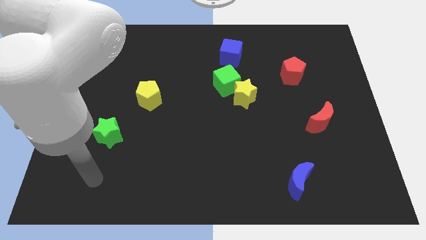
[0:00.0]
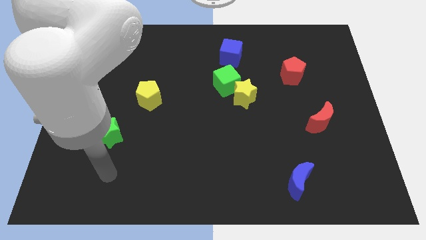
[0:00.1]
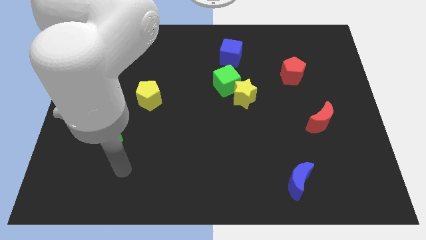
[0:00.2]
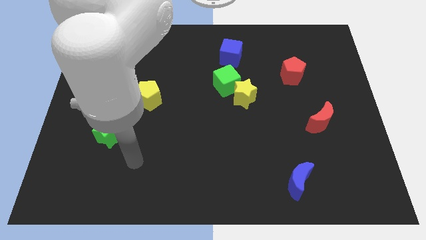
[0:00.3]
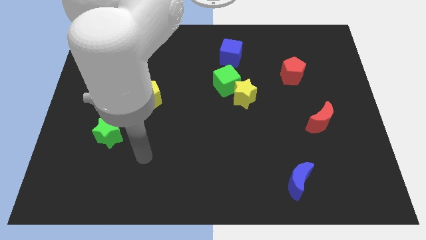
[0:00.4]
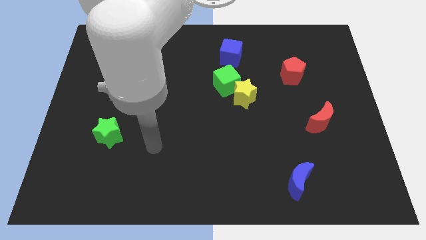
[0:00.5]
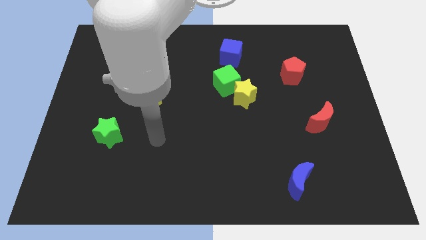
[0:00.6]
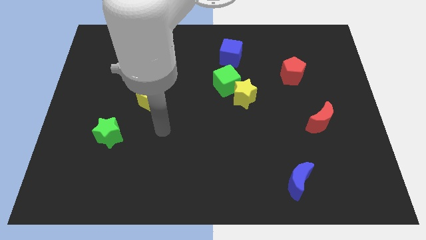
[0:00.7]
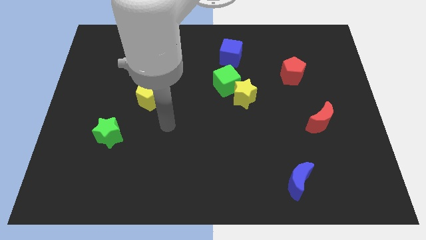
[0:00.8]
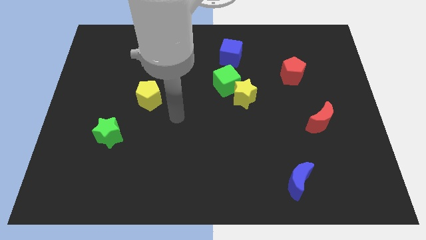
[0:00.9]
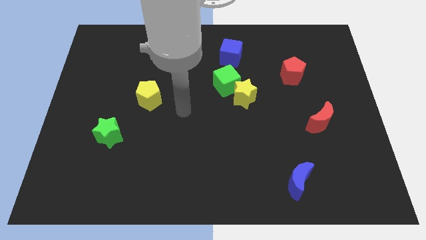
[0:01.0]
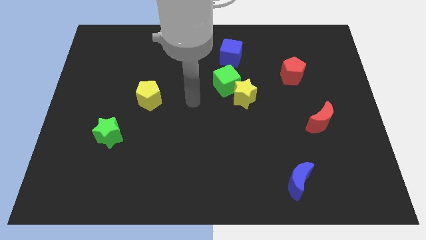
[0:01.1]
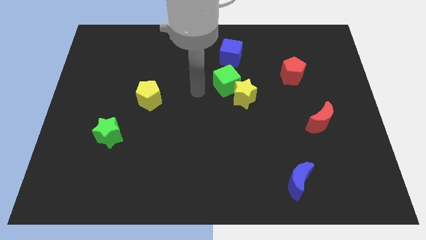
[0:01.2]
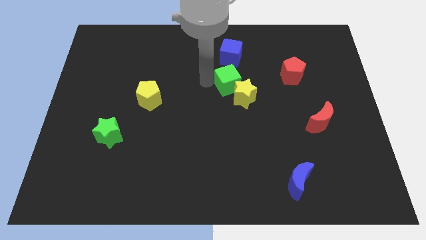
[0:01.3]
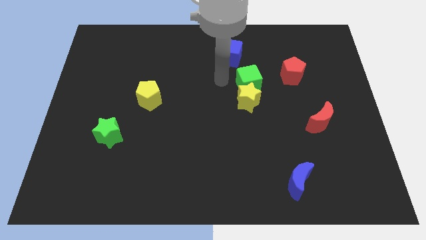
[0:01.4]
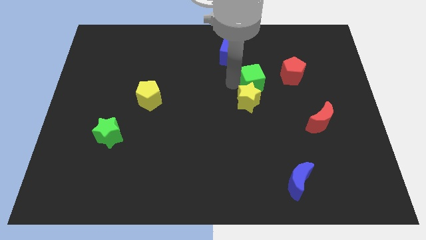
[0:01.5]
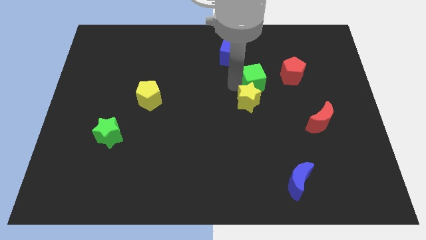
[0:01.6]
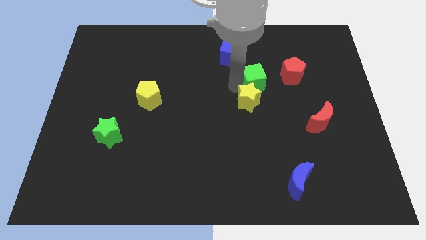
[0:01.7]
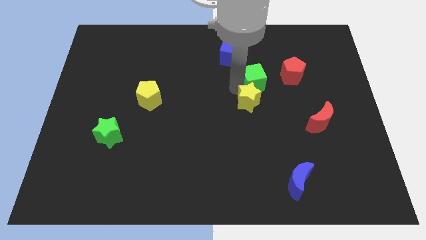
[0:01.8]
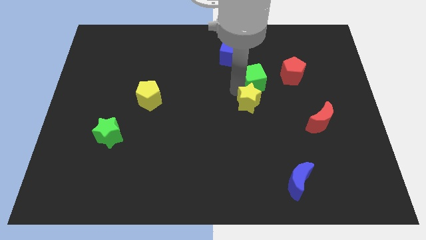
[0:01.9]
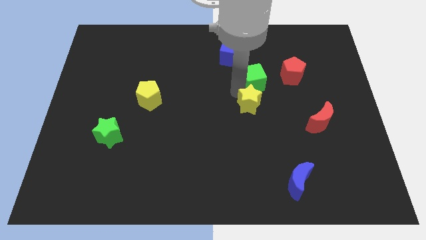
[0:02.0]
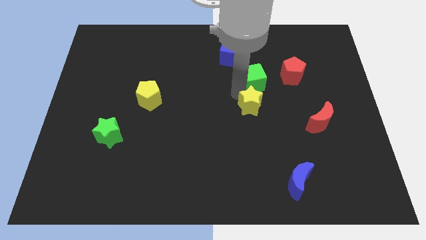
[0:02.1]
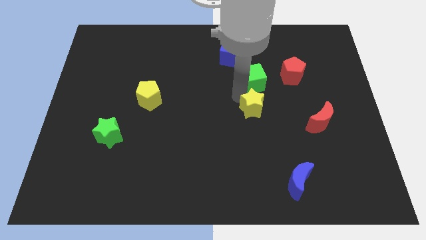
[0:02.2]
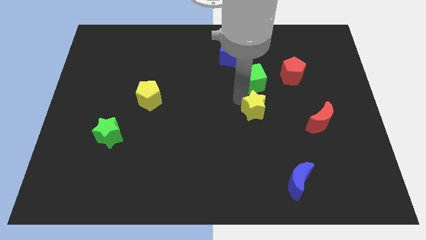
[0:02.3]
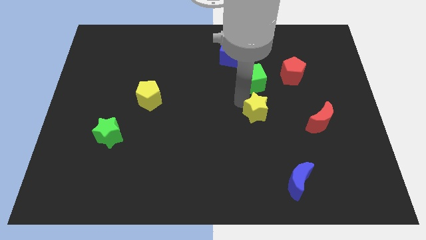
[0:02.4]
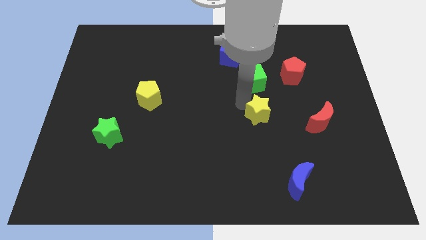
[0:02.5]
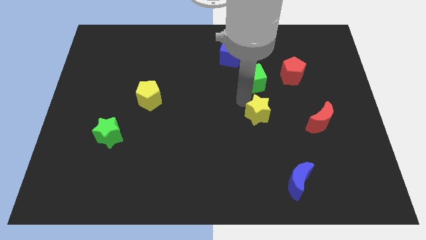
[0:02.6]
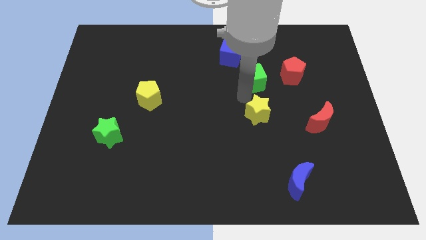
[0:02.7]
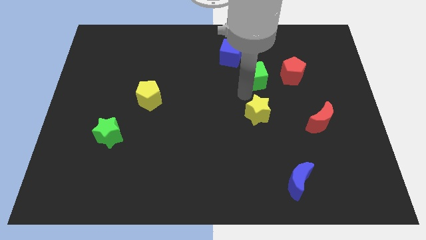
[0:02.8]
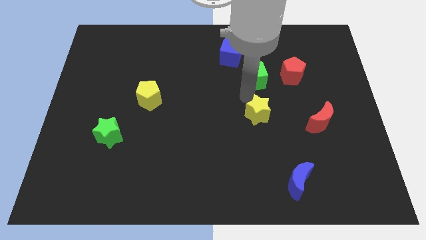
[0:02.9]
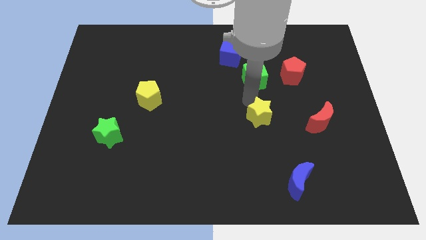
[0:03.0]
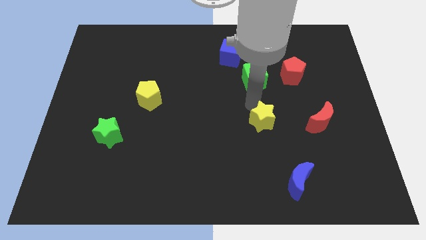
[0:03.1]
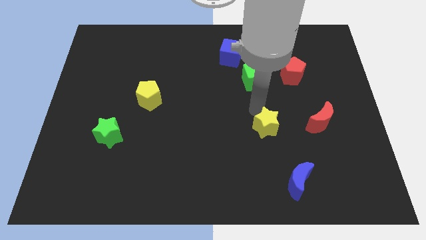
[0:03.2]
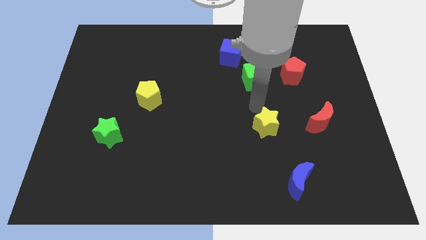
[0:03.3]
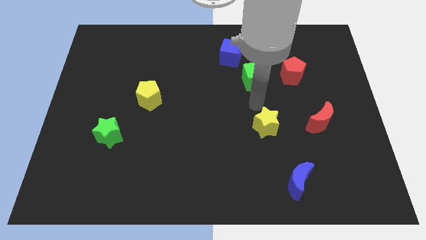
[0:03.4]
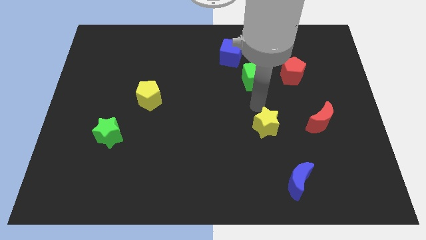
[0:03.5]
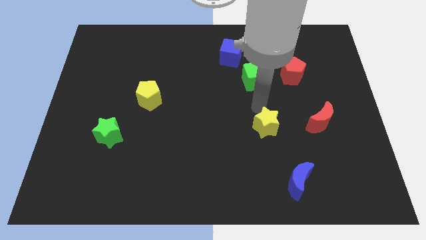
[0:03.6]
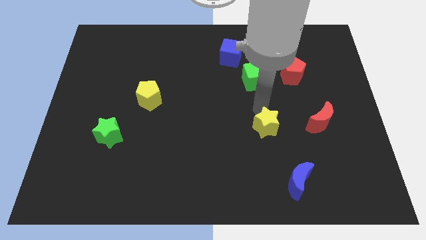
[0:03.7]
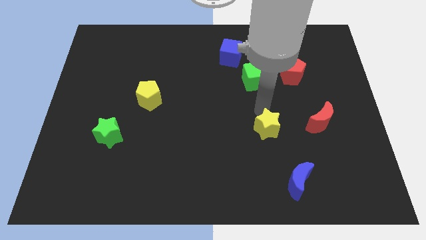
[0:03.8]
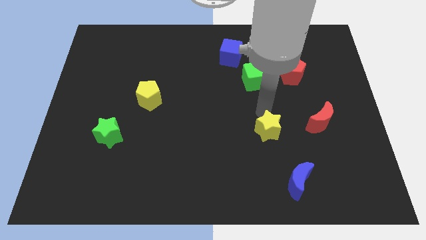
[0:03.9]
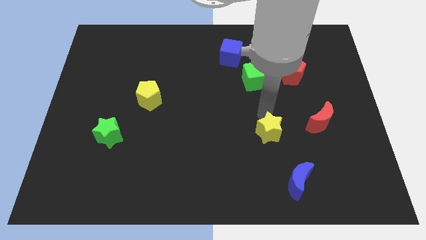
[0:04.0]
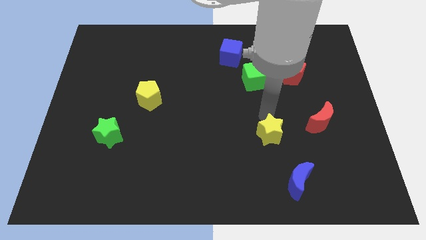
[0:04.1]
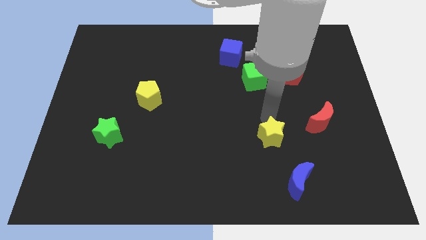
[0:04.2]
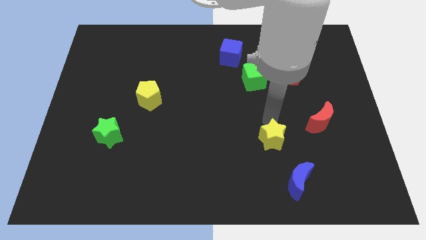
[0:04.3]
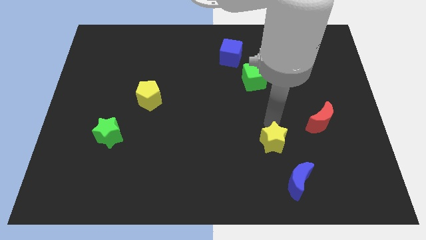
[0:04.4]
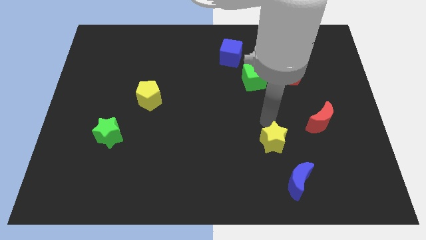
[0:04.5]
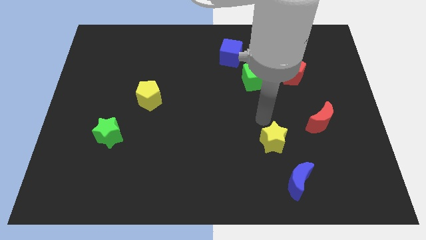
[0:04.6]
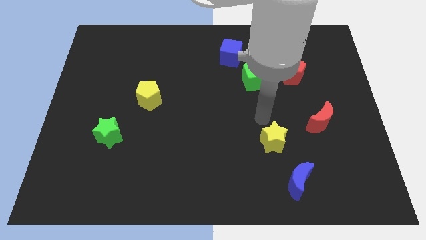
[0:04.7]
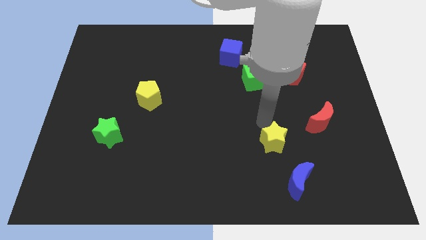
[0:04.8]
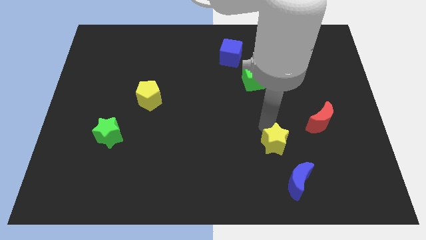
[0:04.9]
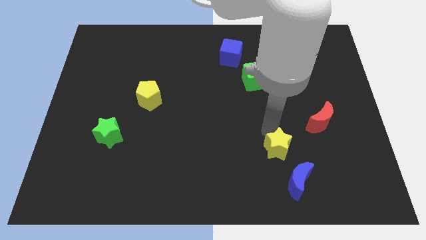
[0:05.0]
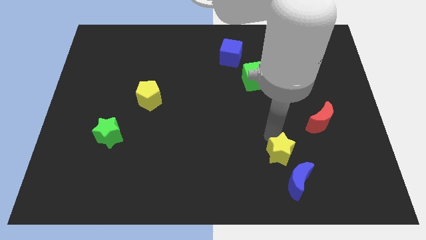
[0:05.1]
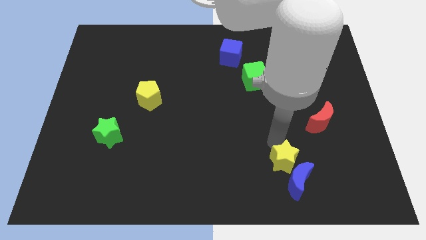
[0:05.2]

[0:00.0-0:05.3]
slide the yellow star towards the blue moon

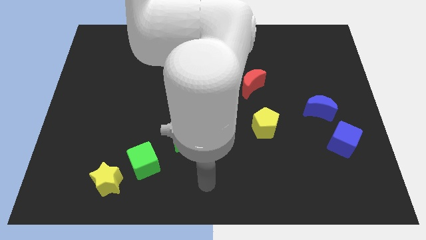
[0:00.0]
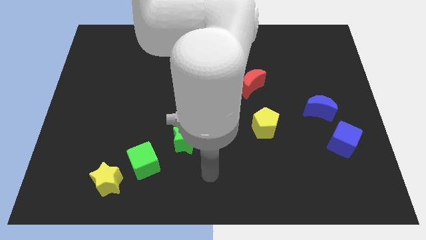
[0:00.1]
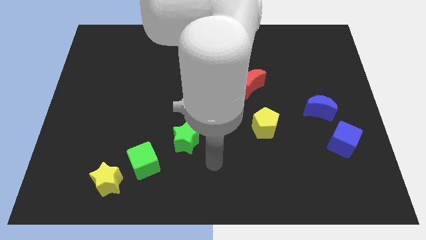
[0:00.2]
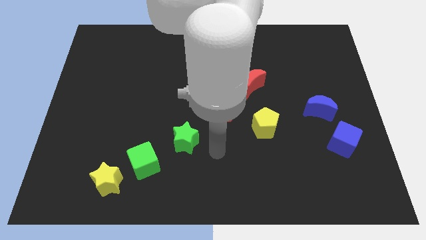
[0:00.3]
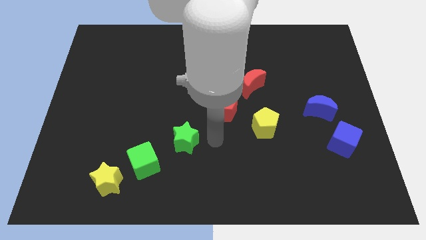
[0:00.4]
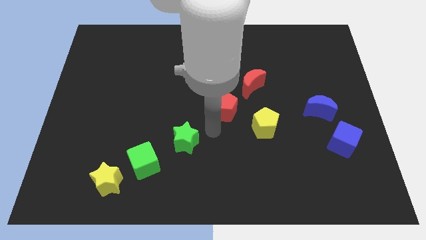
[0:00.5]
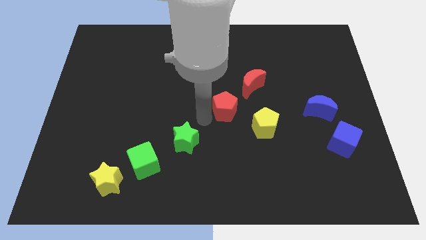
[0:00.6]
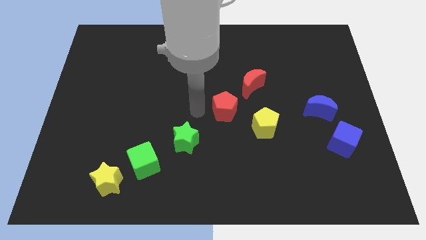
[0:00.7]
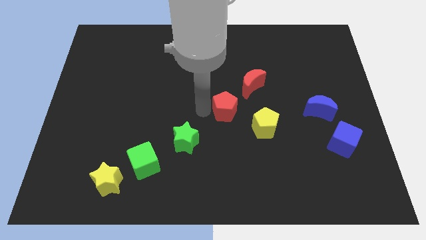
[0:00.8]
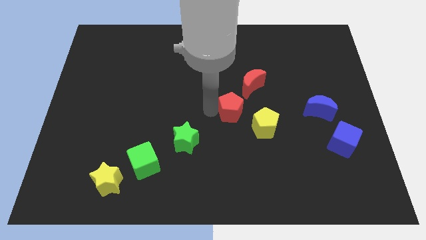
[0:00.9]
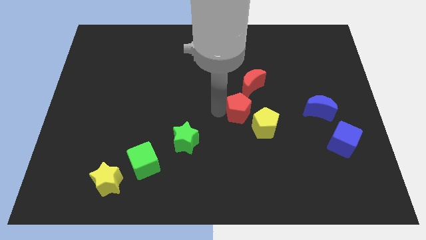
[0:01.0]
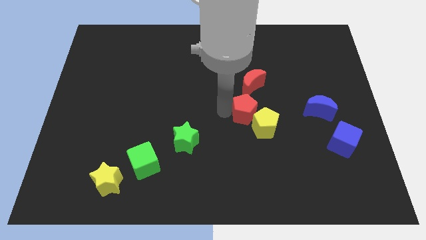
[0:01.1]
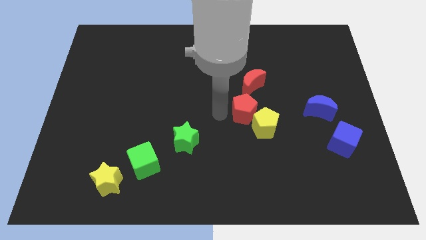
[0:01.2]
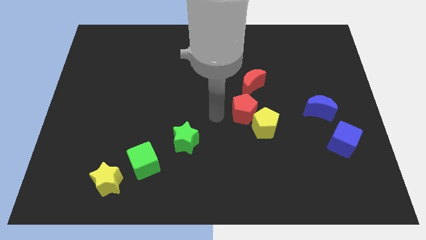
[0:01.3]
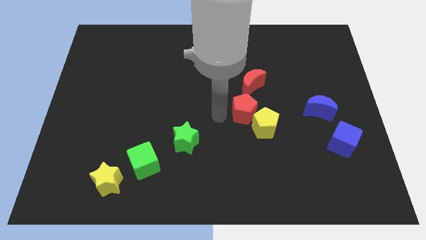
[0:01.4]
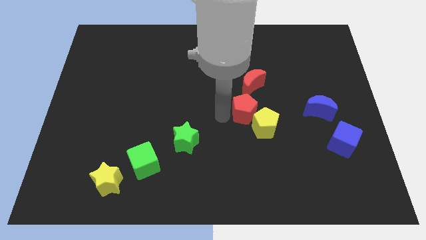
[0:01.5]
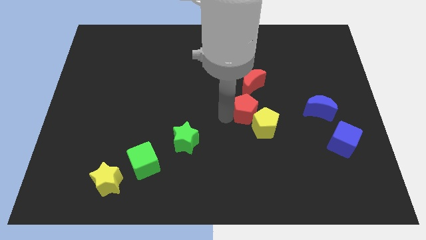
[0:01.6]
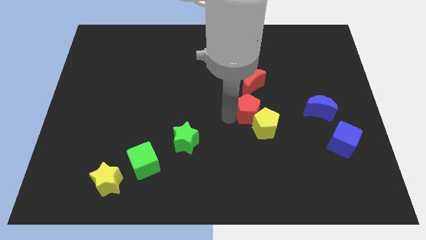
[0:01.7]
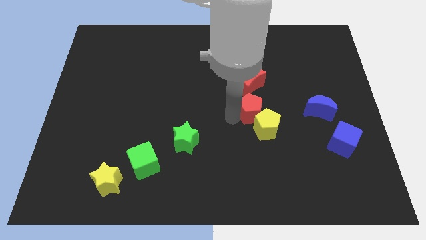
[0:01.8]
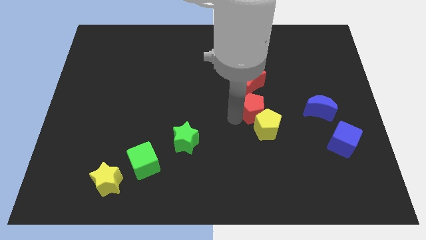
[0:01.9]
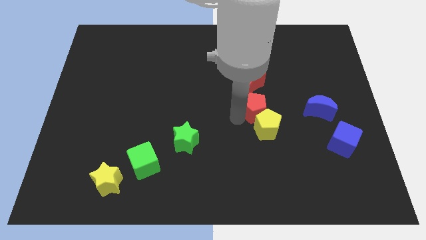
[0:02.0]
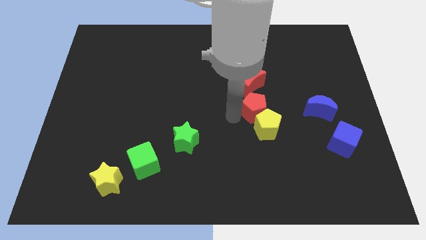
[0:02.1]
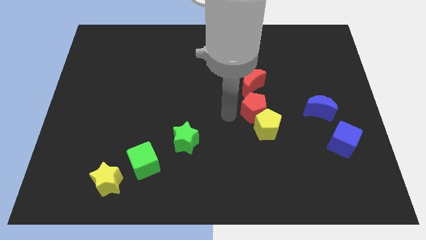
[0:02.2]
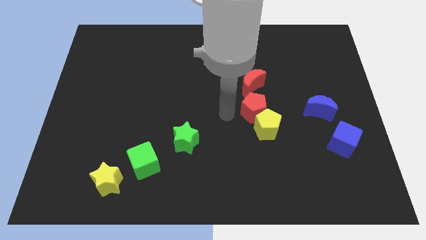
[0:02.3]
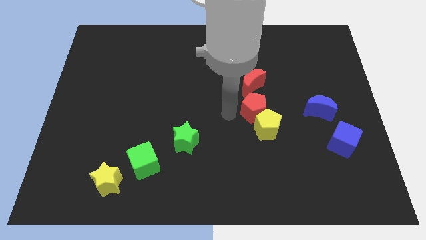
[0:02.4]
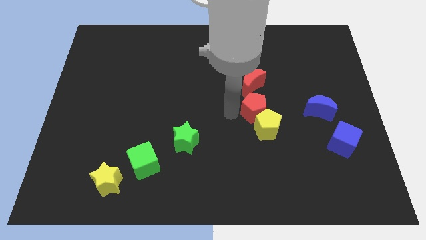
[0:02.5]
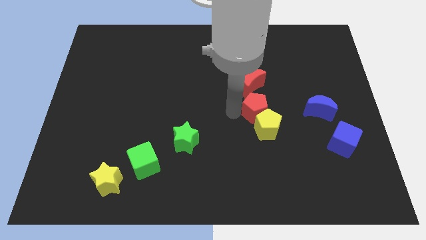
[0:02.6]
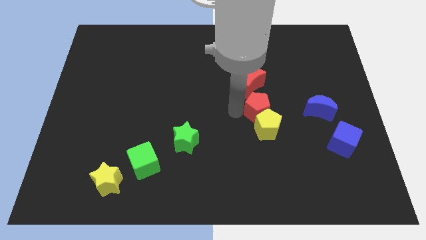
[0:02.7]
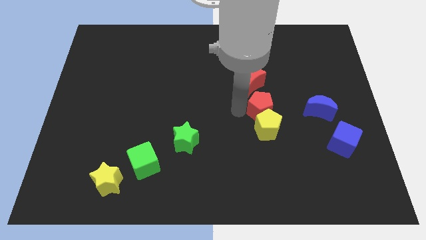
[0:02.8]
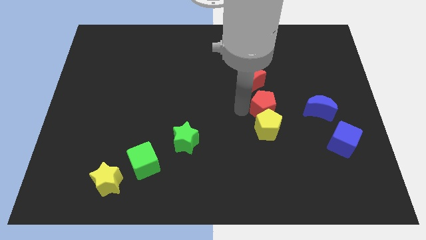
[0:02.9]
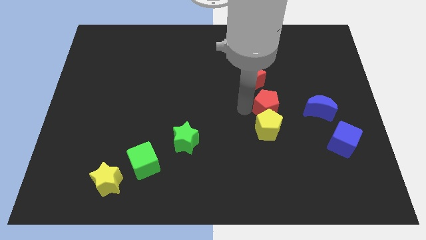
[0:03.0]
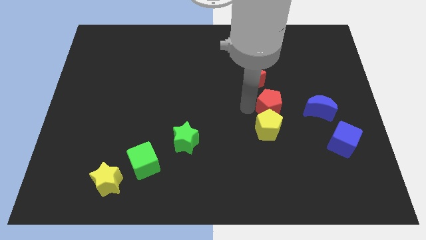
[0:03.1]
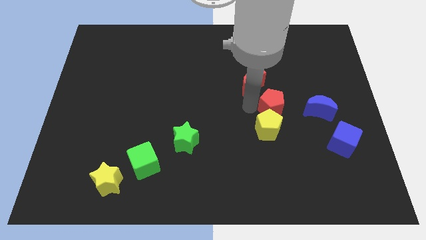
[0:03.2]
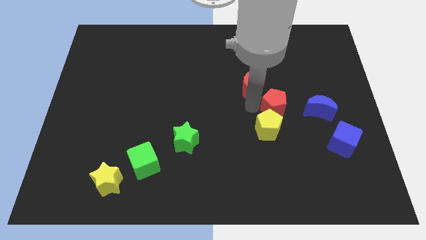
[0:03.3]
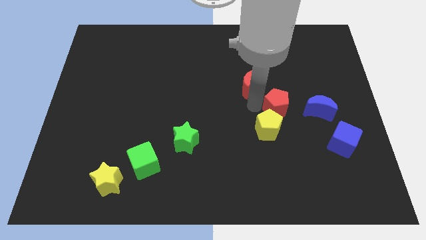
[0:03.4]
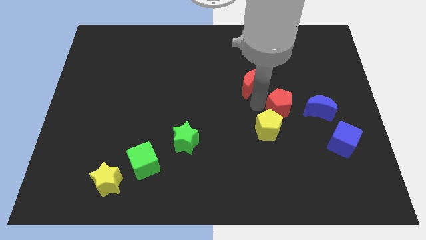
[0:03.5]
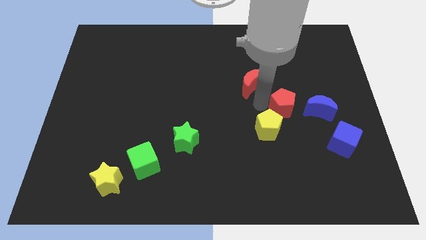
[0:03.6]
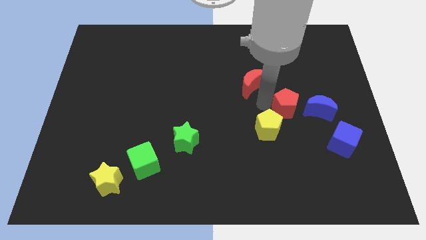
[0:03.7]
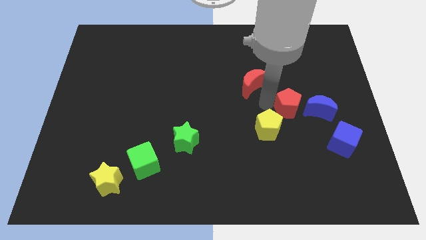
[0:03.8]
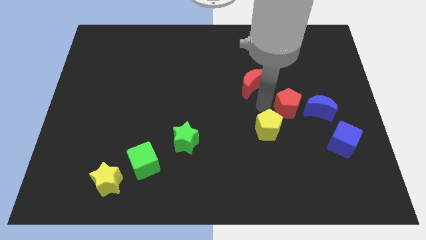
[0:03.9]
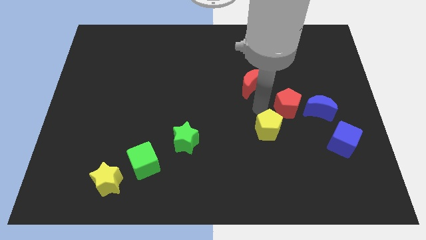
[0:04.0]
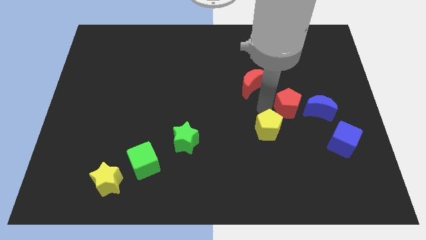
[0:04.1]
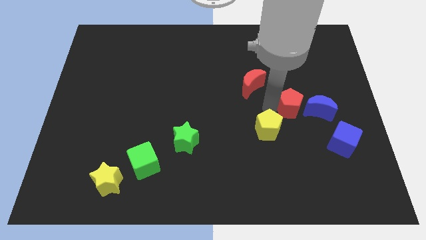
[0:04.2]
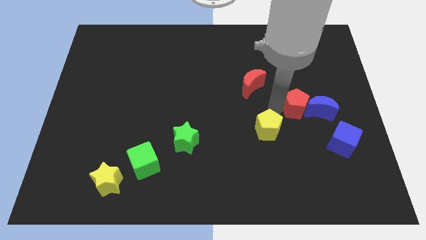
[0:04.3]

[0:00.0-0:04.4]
move the red pentagon to the blue moon
